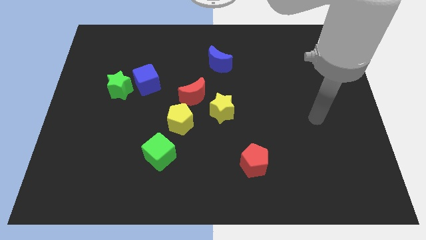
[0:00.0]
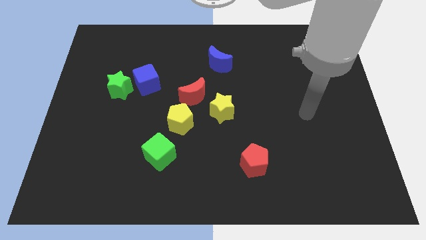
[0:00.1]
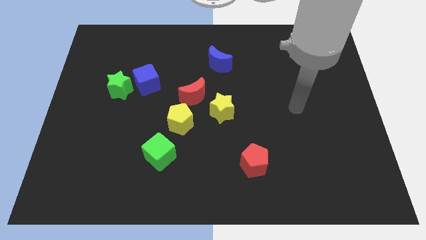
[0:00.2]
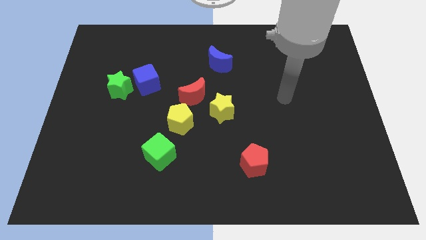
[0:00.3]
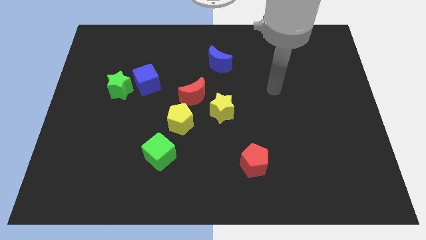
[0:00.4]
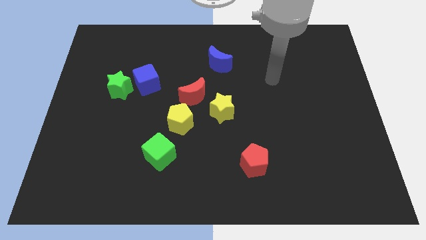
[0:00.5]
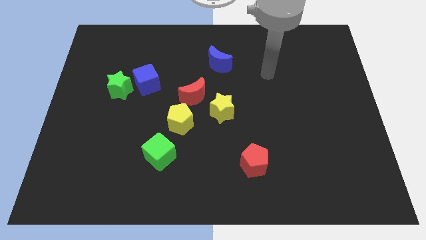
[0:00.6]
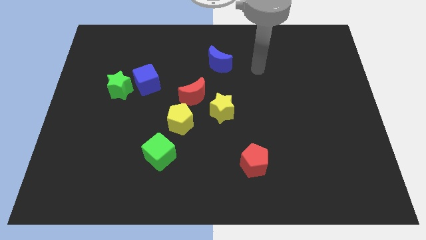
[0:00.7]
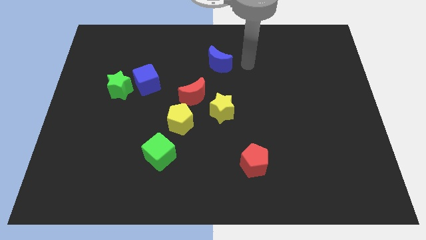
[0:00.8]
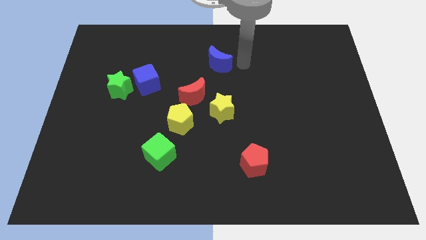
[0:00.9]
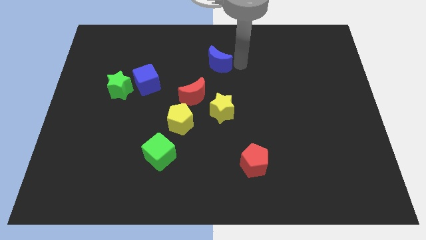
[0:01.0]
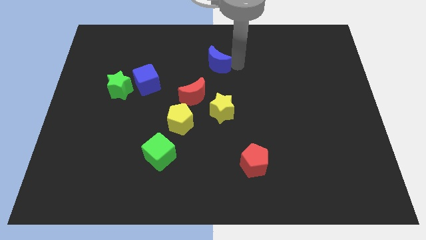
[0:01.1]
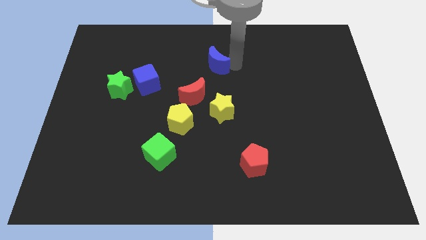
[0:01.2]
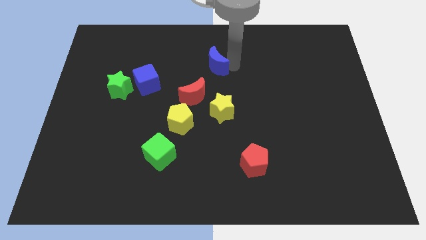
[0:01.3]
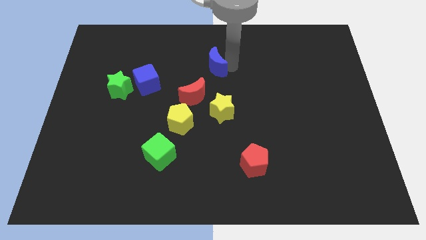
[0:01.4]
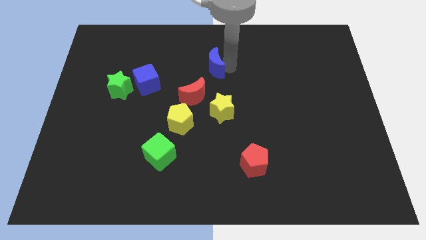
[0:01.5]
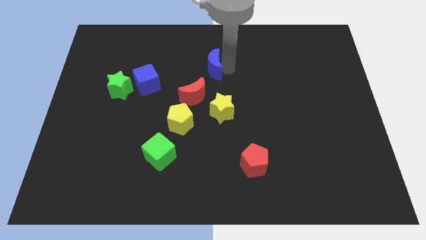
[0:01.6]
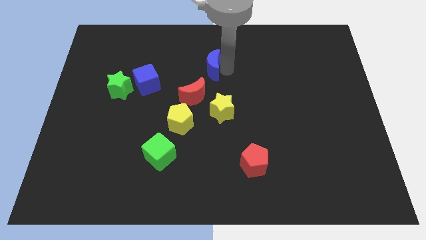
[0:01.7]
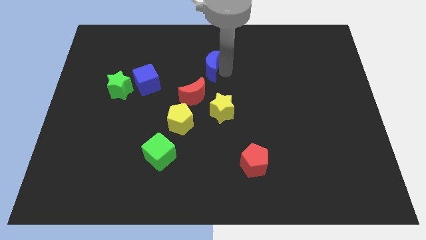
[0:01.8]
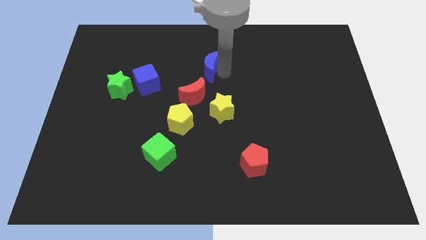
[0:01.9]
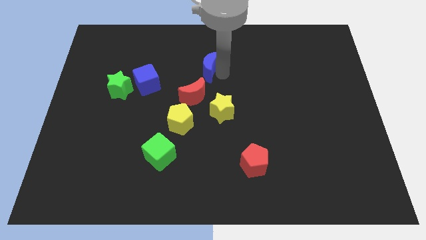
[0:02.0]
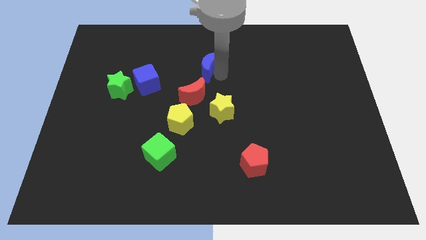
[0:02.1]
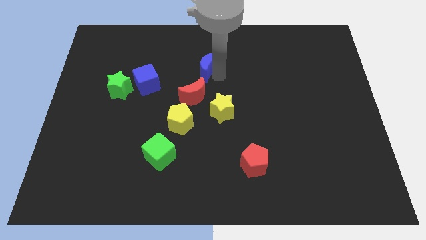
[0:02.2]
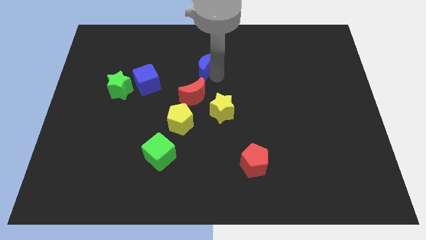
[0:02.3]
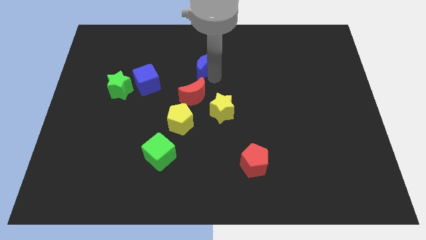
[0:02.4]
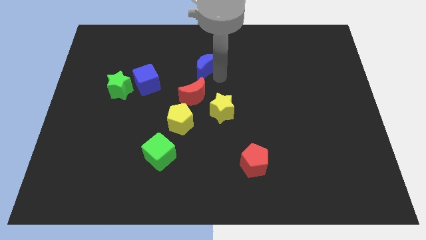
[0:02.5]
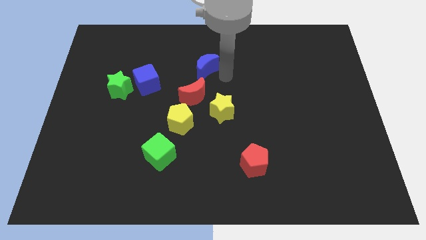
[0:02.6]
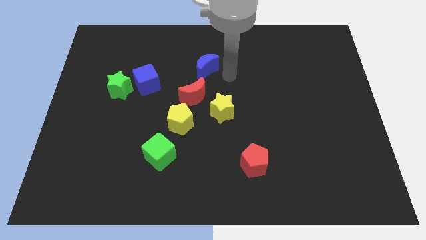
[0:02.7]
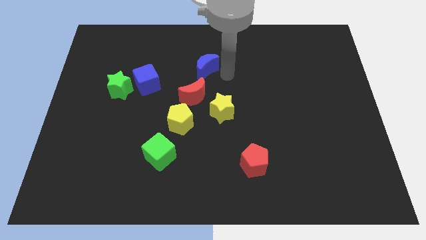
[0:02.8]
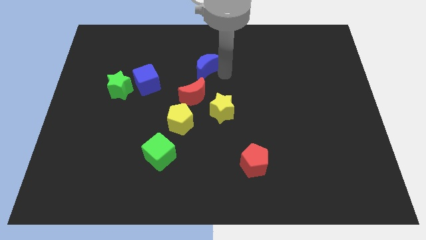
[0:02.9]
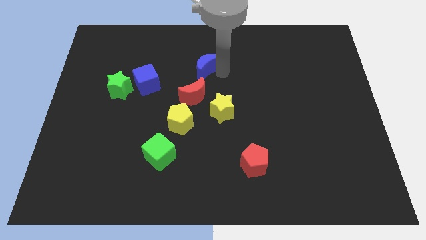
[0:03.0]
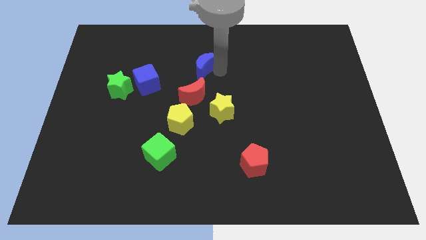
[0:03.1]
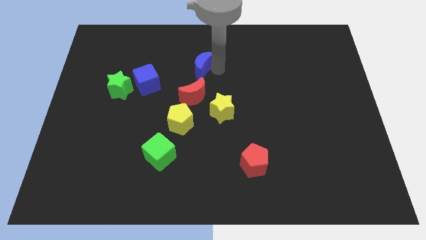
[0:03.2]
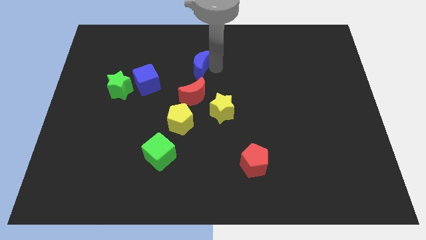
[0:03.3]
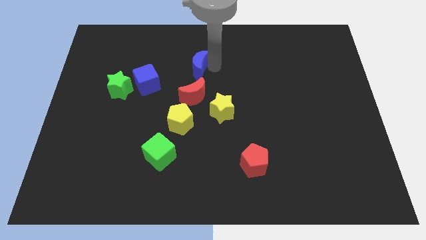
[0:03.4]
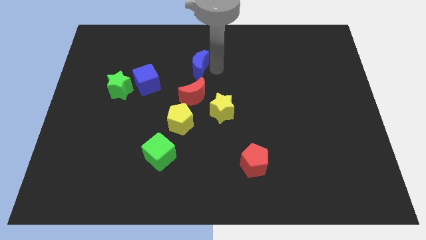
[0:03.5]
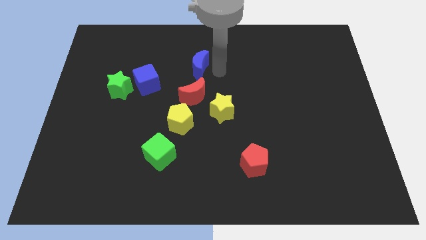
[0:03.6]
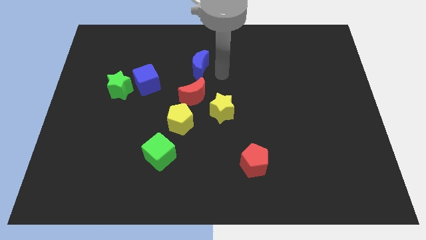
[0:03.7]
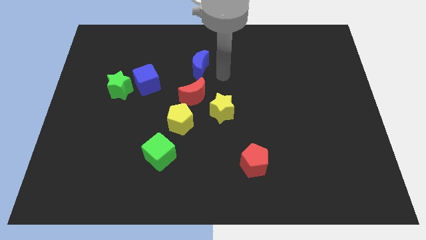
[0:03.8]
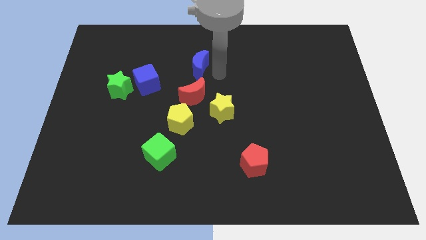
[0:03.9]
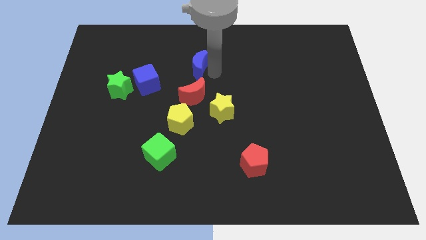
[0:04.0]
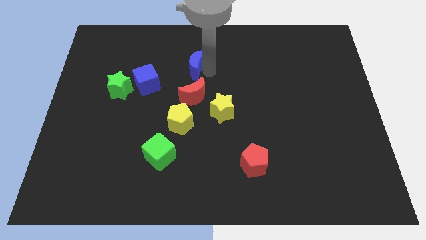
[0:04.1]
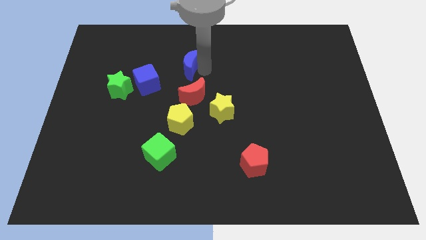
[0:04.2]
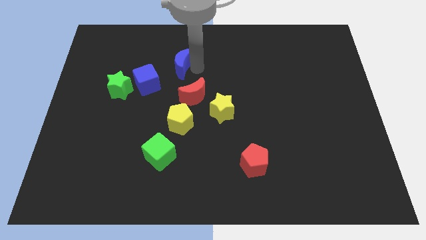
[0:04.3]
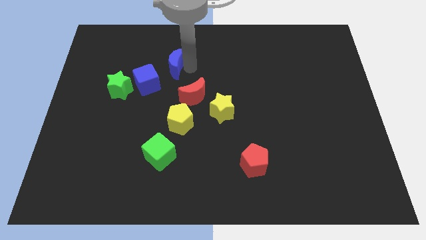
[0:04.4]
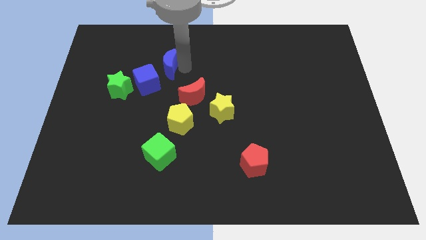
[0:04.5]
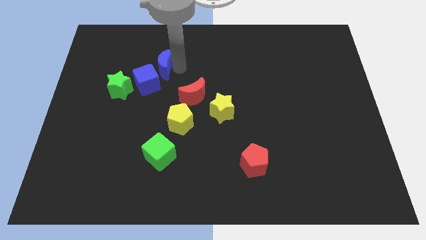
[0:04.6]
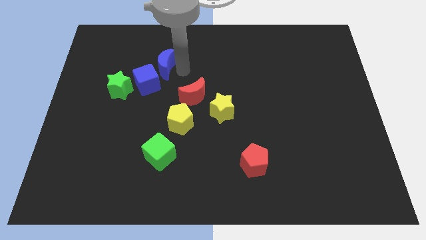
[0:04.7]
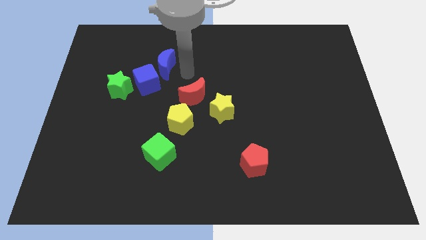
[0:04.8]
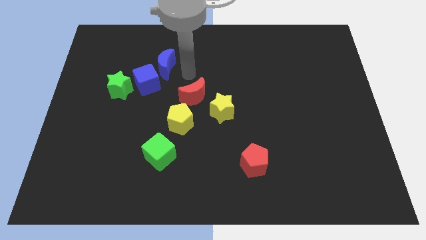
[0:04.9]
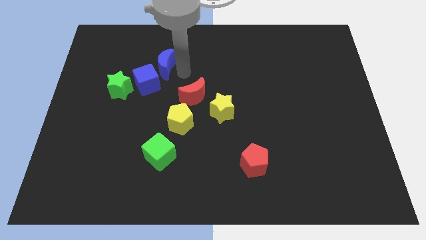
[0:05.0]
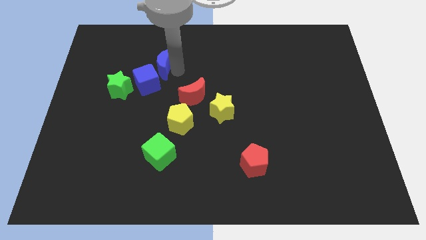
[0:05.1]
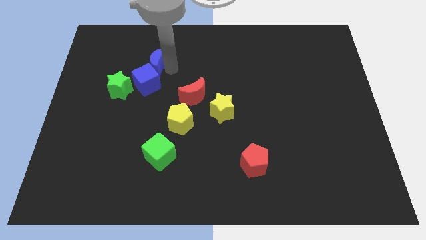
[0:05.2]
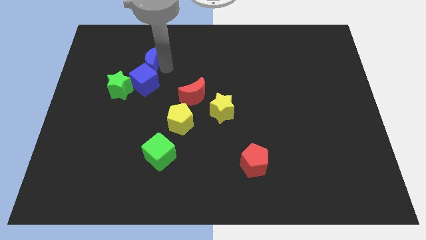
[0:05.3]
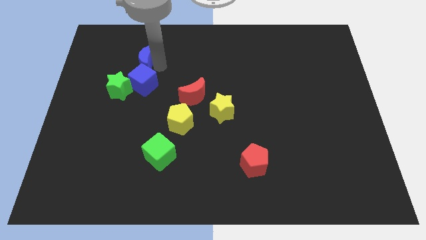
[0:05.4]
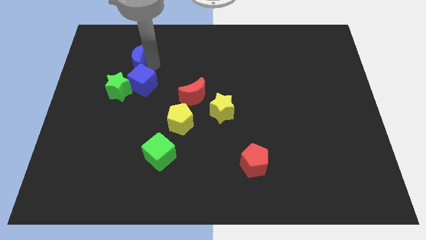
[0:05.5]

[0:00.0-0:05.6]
move the blue moon above the green star

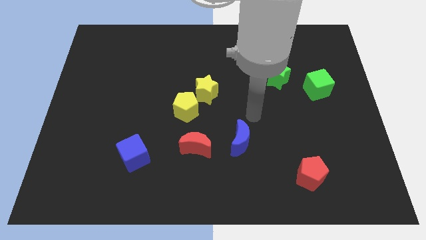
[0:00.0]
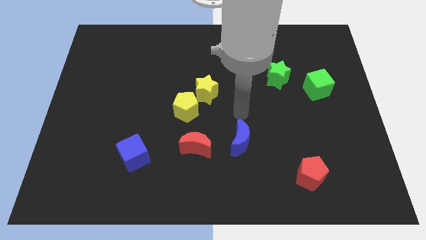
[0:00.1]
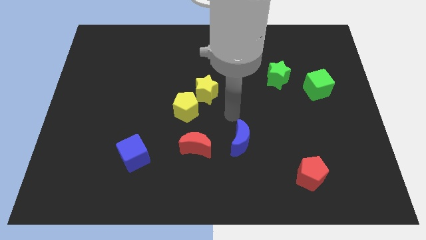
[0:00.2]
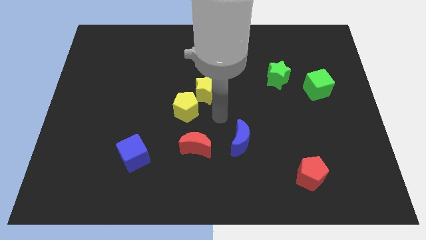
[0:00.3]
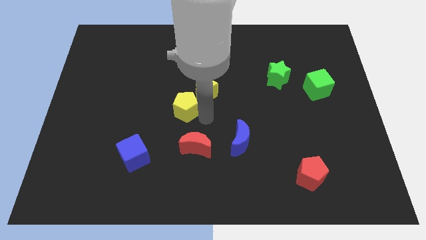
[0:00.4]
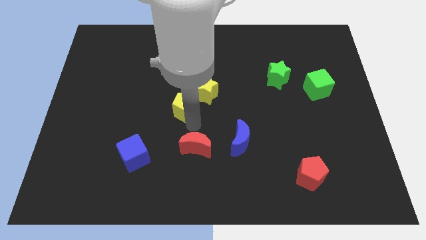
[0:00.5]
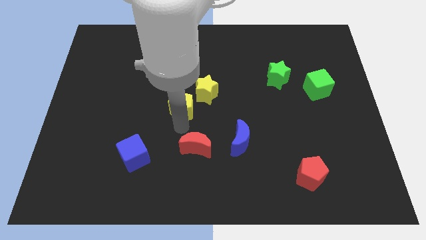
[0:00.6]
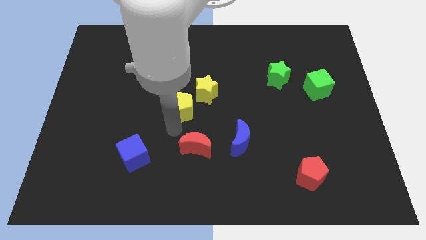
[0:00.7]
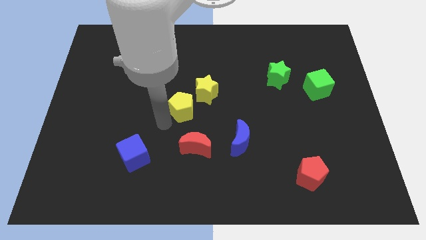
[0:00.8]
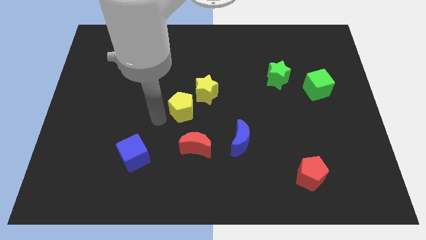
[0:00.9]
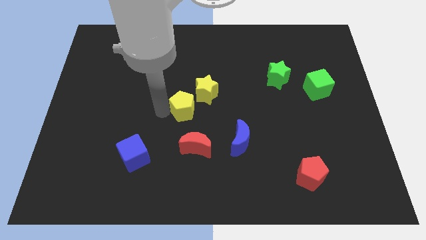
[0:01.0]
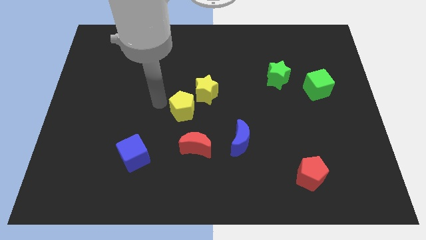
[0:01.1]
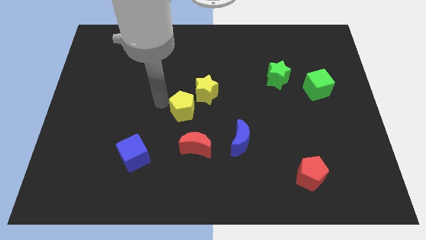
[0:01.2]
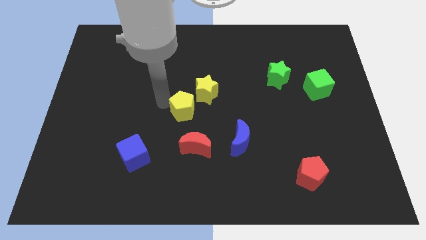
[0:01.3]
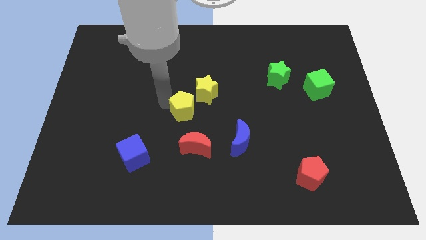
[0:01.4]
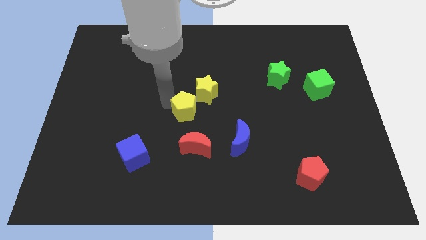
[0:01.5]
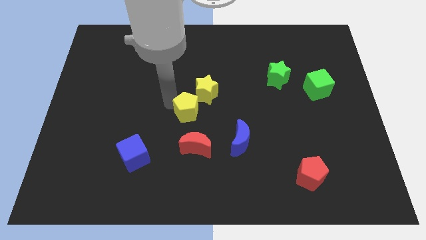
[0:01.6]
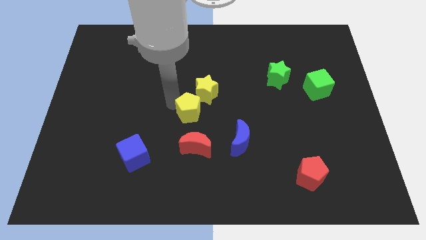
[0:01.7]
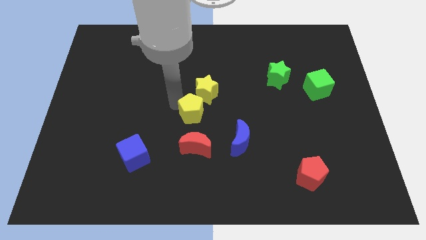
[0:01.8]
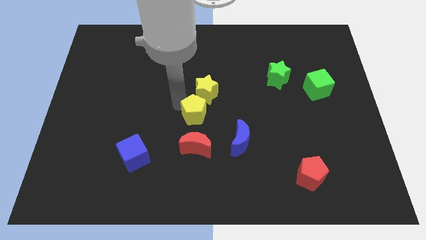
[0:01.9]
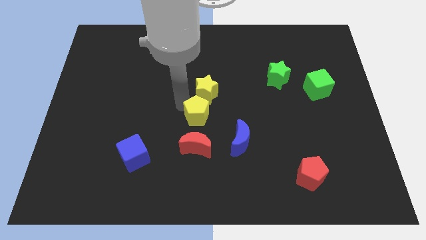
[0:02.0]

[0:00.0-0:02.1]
slide the yellow pentagon to the top left of the blue moon
